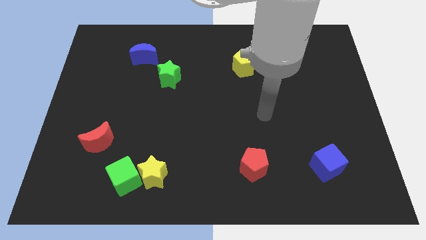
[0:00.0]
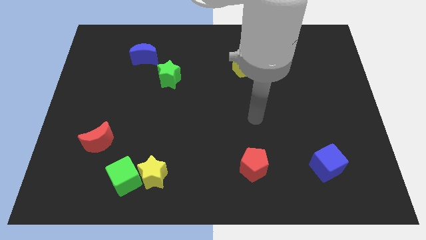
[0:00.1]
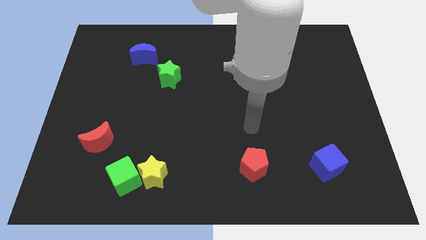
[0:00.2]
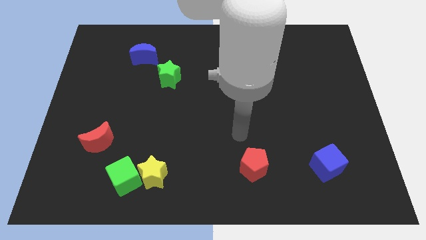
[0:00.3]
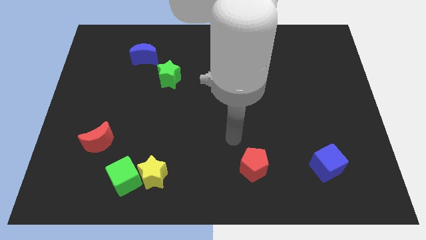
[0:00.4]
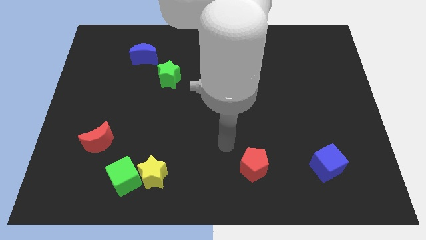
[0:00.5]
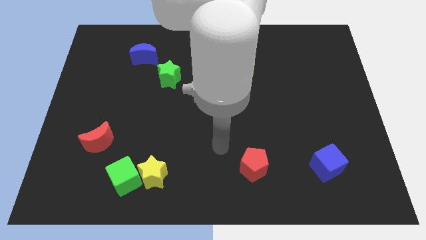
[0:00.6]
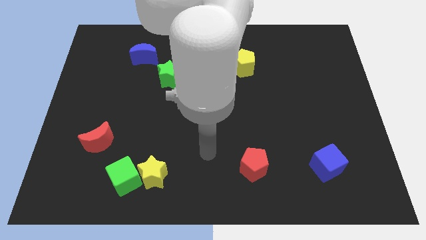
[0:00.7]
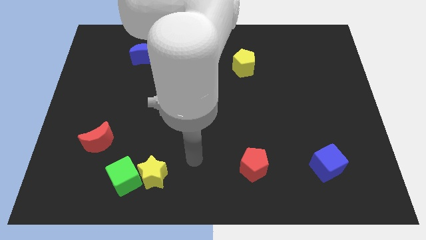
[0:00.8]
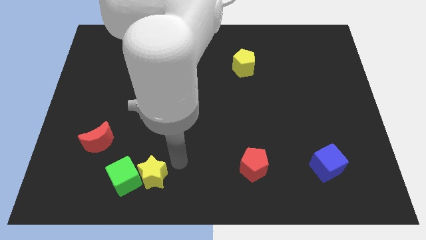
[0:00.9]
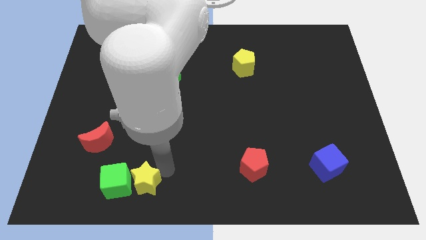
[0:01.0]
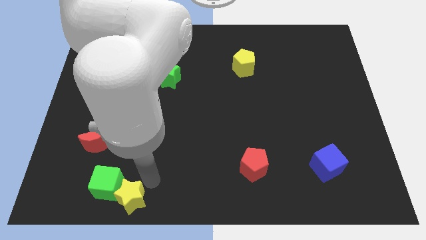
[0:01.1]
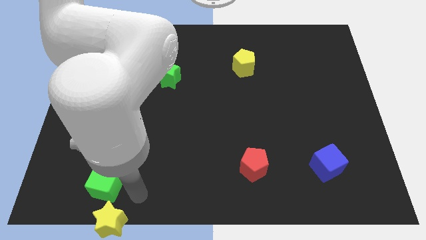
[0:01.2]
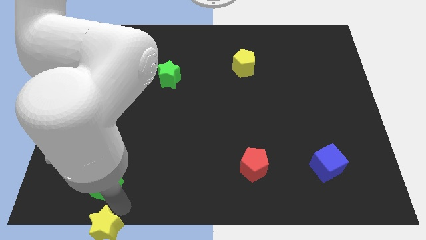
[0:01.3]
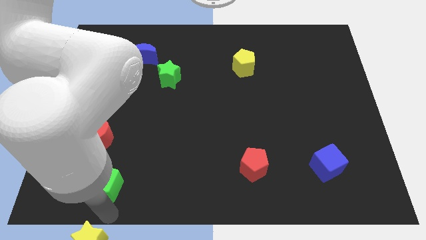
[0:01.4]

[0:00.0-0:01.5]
separate the green cube from the yellow star

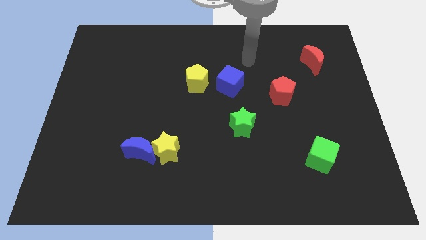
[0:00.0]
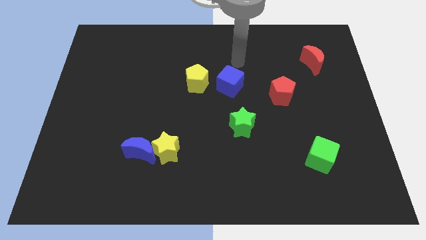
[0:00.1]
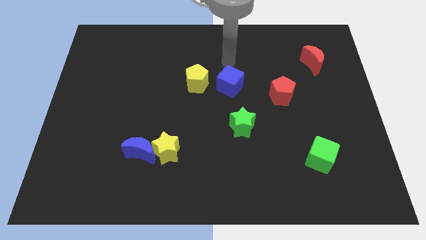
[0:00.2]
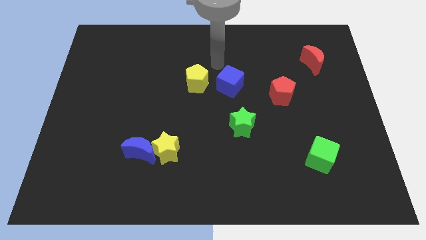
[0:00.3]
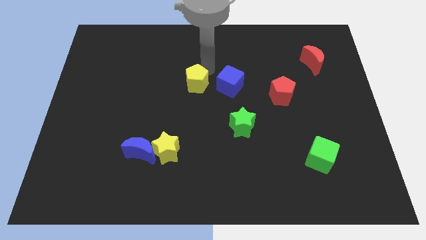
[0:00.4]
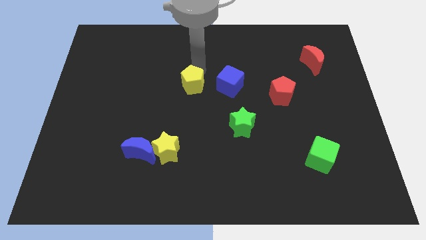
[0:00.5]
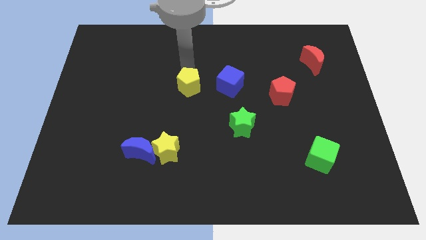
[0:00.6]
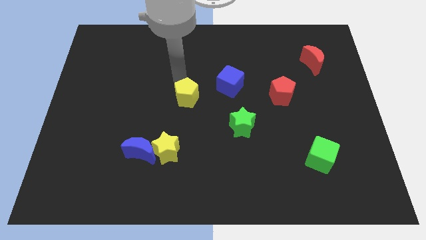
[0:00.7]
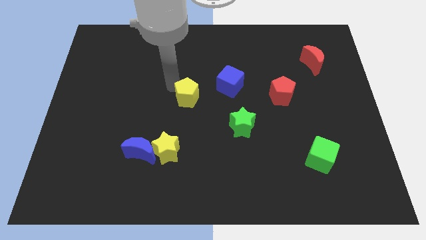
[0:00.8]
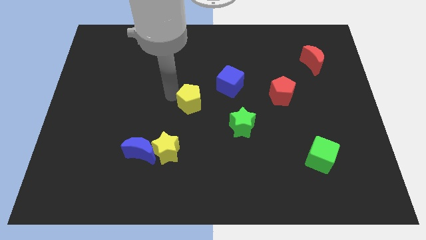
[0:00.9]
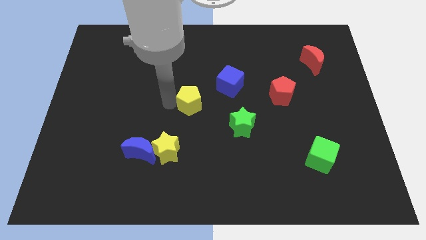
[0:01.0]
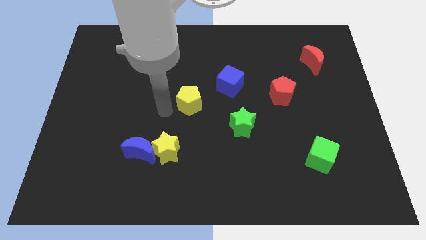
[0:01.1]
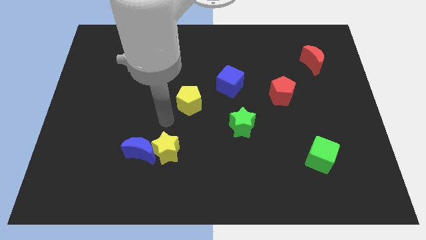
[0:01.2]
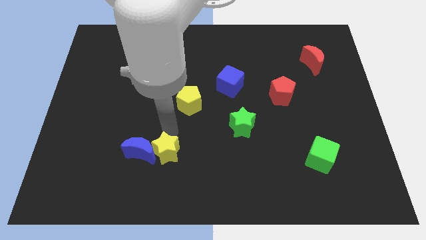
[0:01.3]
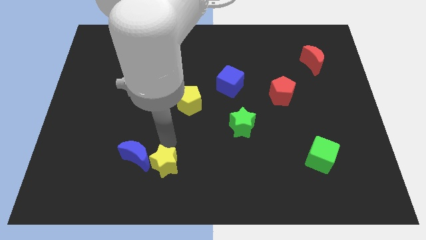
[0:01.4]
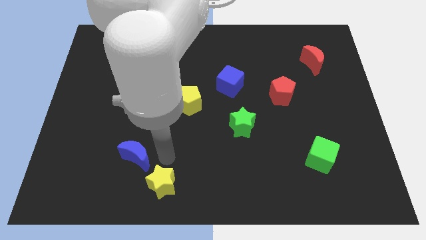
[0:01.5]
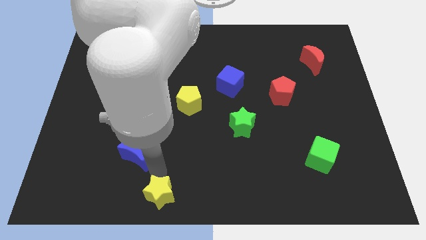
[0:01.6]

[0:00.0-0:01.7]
separate the blue moon from the yellow star

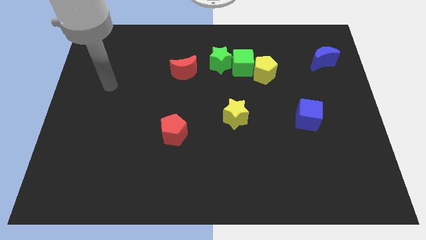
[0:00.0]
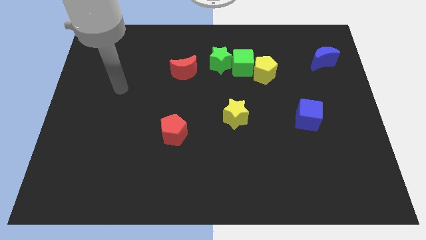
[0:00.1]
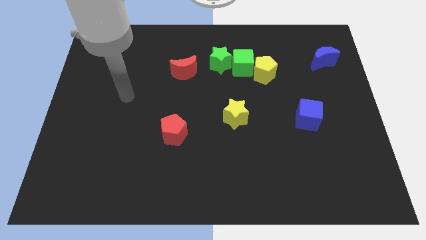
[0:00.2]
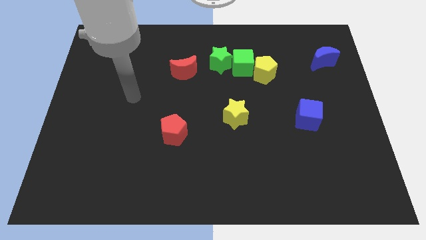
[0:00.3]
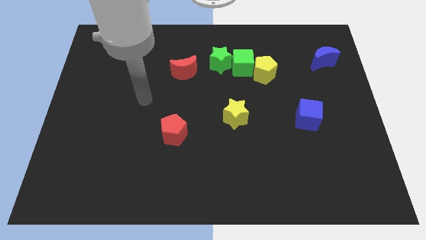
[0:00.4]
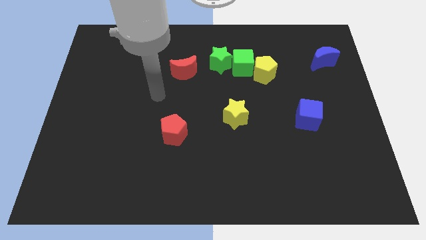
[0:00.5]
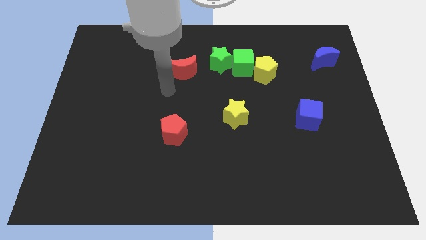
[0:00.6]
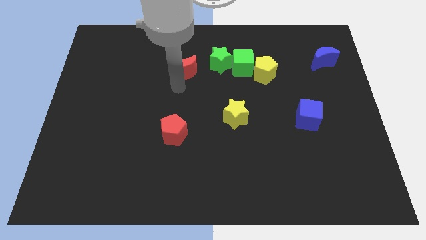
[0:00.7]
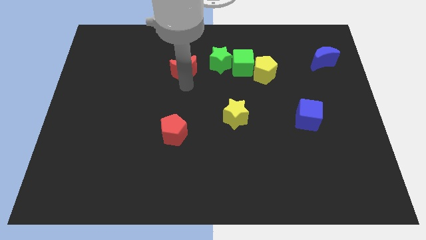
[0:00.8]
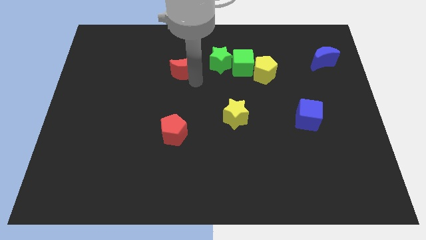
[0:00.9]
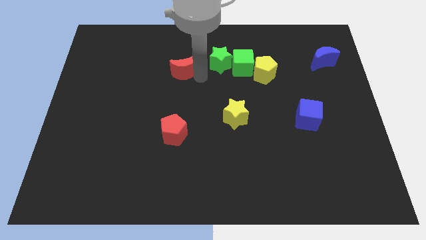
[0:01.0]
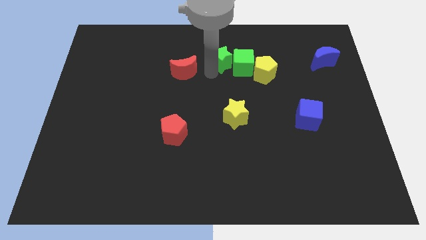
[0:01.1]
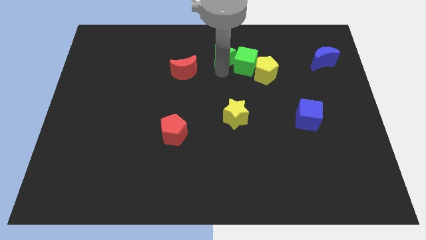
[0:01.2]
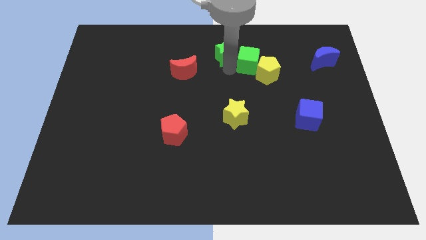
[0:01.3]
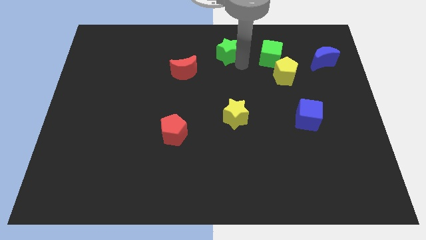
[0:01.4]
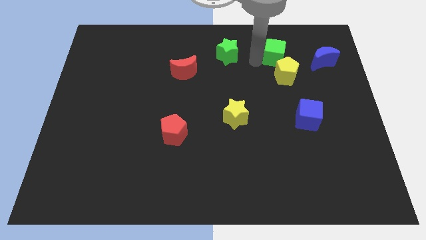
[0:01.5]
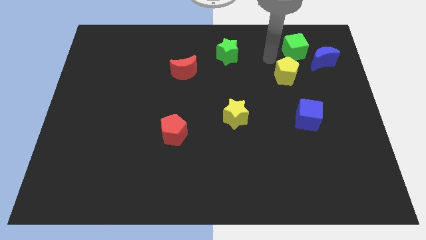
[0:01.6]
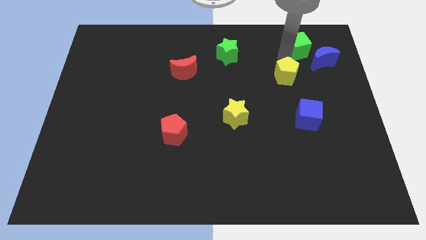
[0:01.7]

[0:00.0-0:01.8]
pull the yellow pentagon apart from the green cube

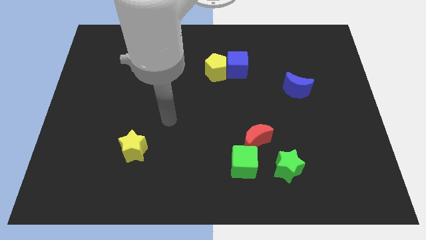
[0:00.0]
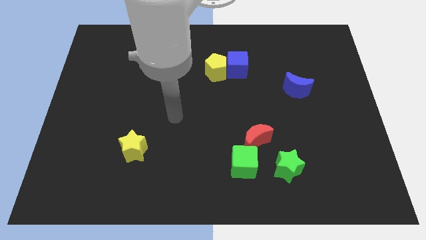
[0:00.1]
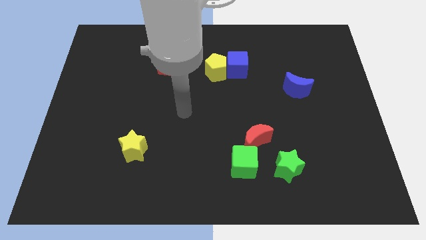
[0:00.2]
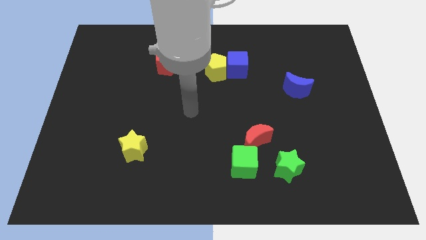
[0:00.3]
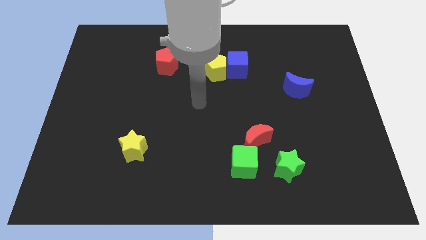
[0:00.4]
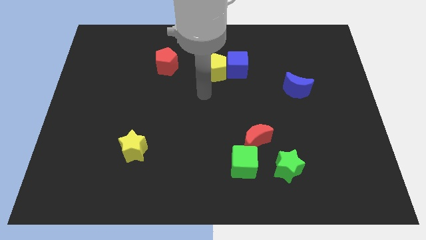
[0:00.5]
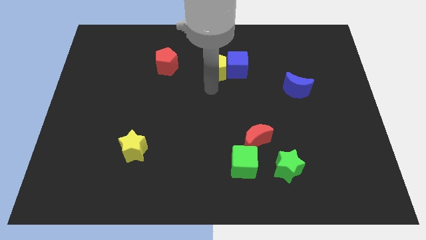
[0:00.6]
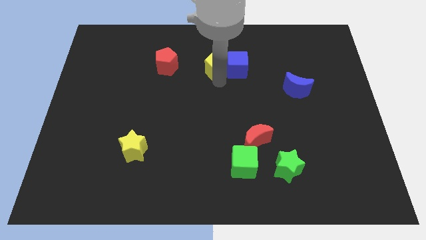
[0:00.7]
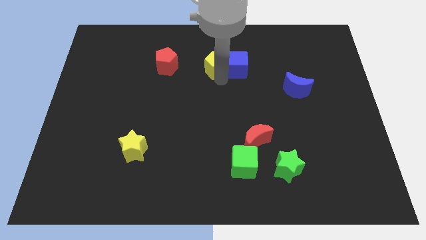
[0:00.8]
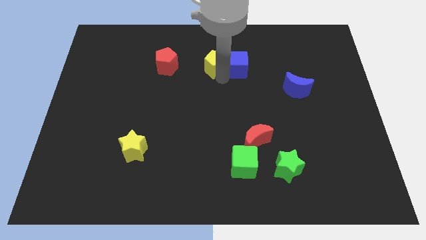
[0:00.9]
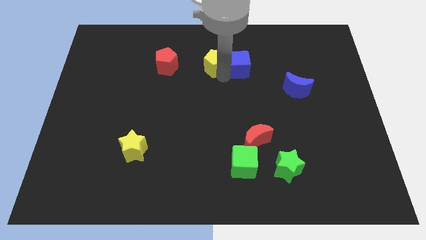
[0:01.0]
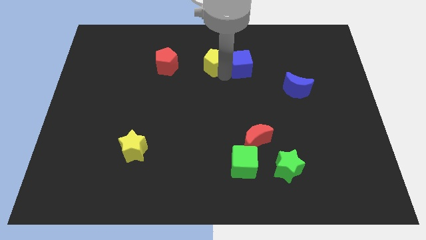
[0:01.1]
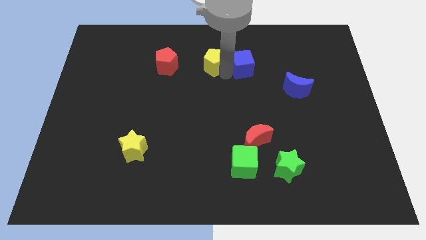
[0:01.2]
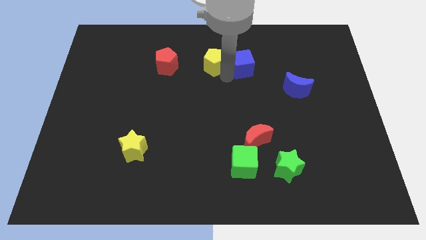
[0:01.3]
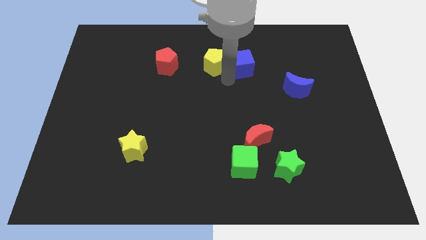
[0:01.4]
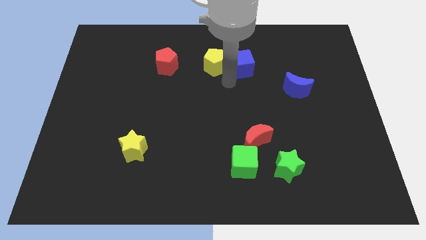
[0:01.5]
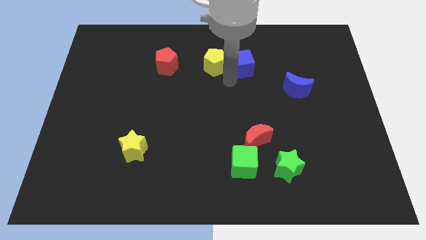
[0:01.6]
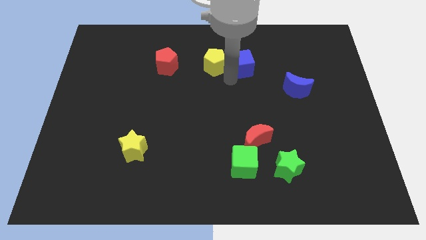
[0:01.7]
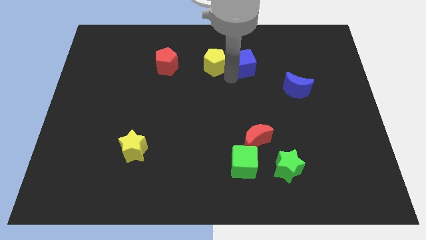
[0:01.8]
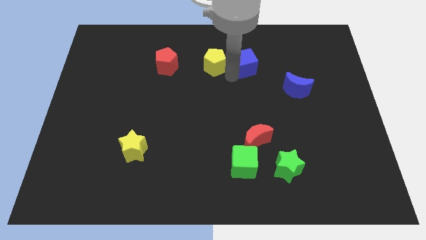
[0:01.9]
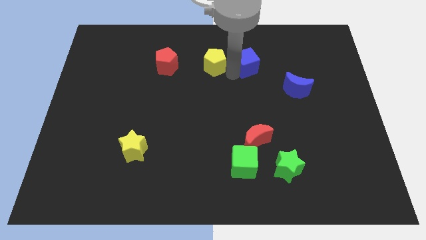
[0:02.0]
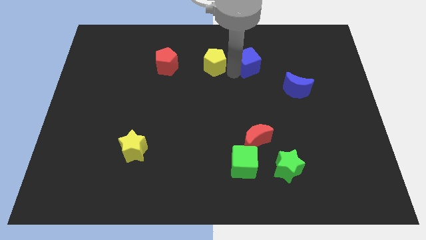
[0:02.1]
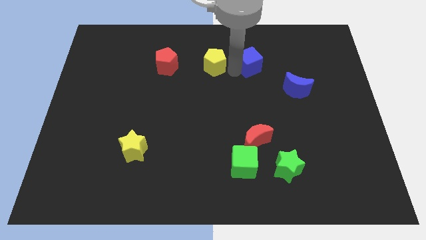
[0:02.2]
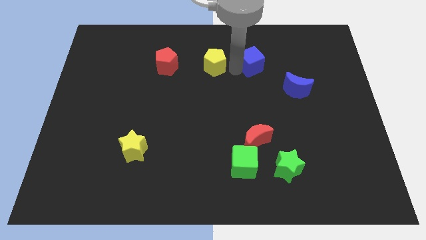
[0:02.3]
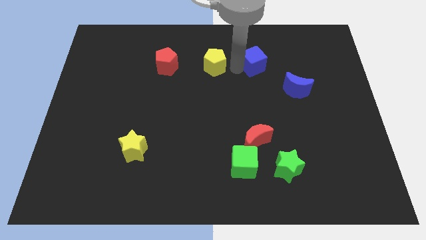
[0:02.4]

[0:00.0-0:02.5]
move the blue cube away from the yellow pentagon

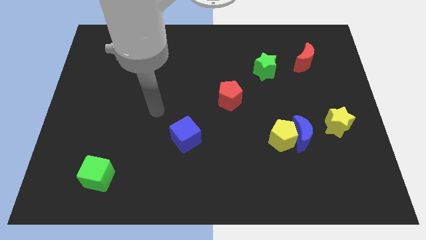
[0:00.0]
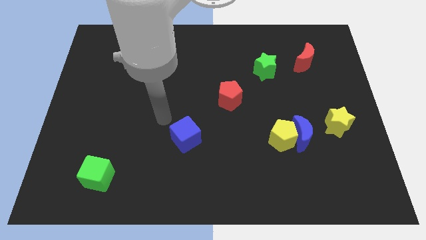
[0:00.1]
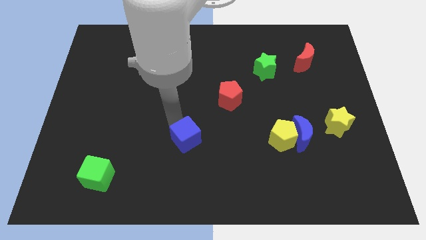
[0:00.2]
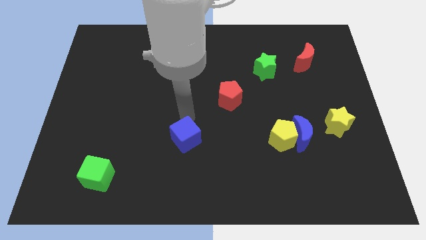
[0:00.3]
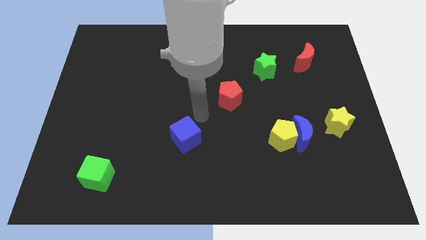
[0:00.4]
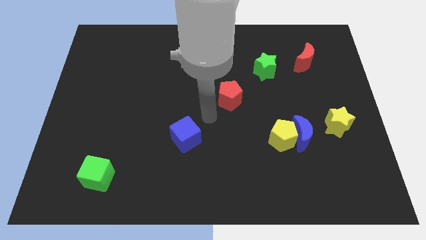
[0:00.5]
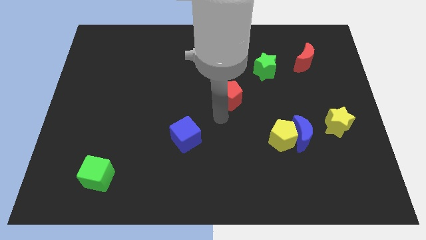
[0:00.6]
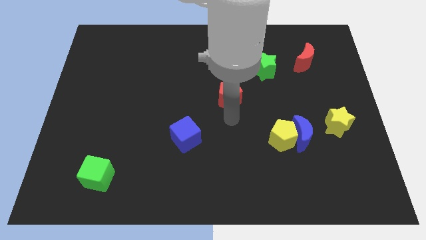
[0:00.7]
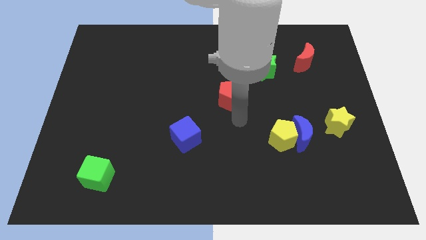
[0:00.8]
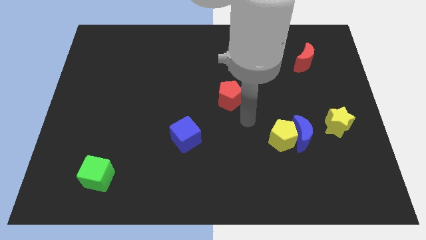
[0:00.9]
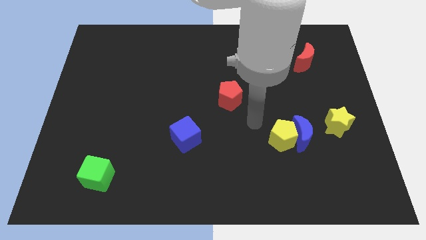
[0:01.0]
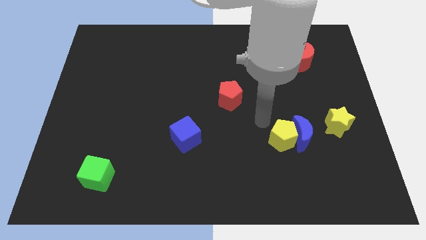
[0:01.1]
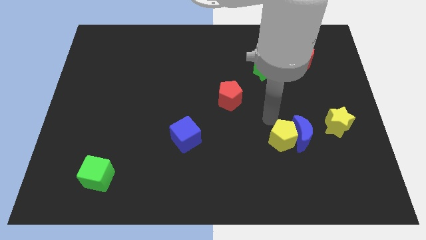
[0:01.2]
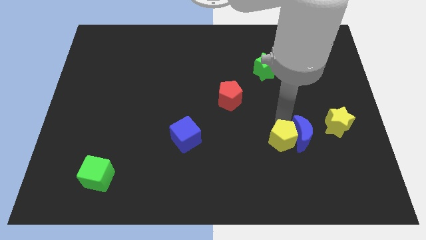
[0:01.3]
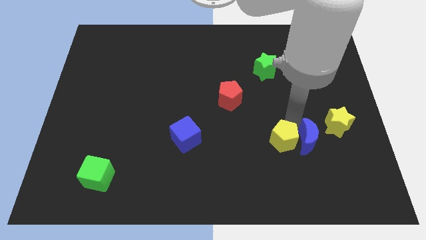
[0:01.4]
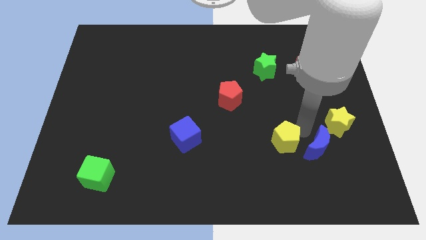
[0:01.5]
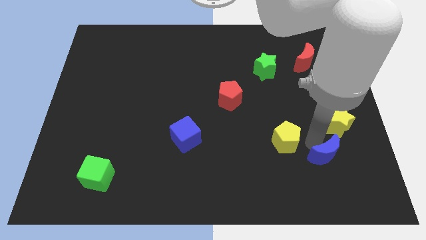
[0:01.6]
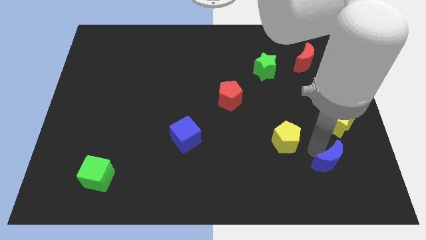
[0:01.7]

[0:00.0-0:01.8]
move the yellow pentagon away from the blue moon
